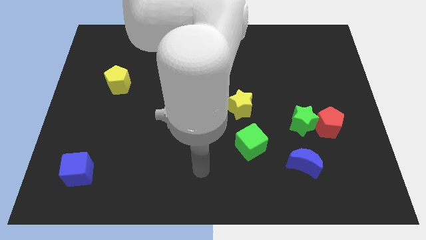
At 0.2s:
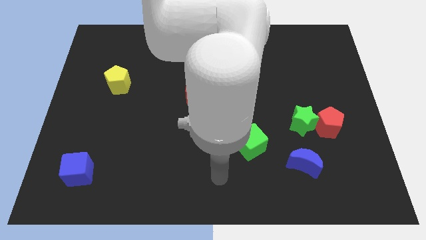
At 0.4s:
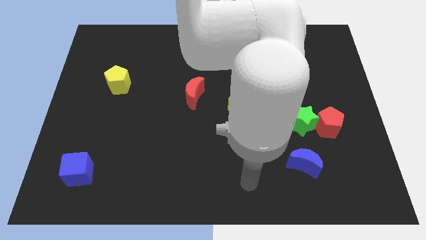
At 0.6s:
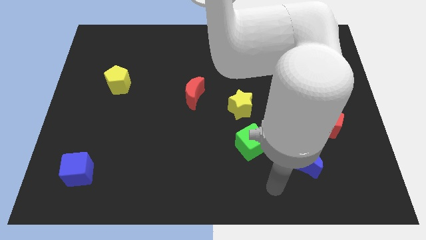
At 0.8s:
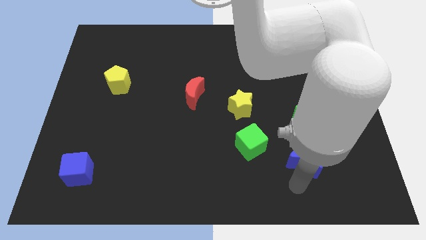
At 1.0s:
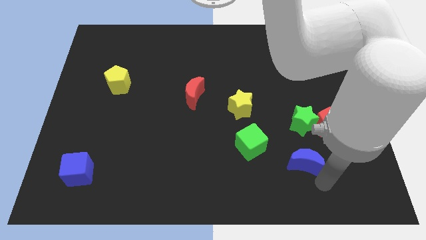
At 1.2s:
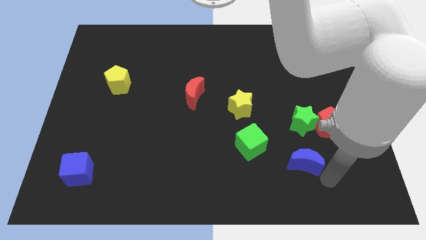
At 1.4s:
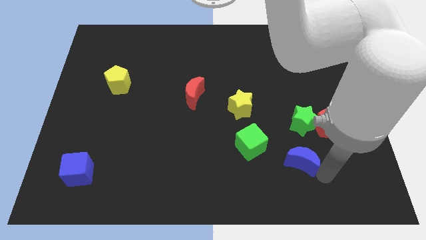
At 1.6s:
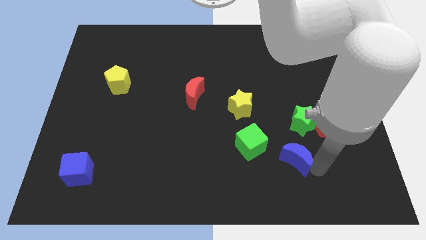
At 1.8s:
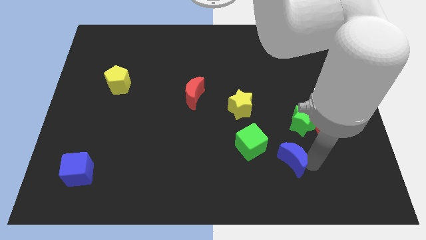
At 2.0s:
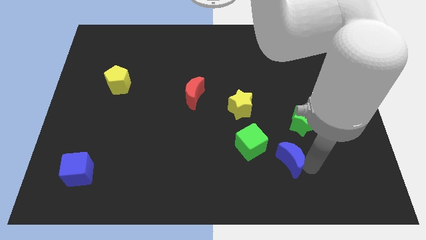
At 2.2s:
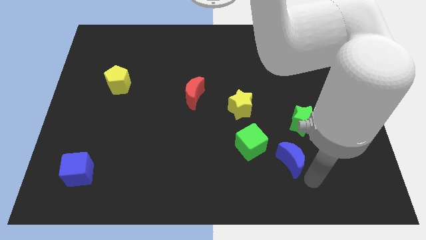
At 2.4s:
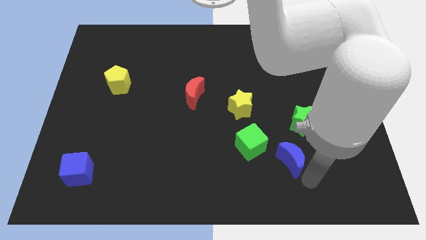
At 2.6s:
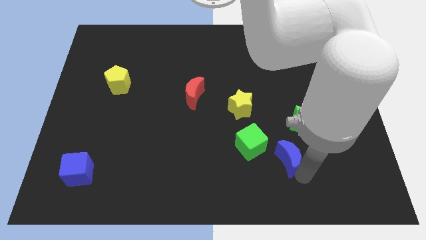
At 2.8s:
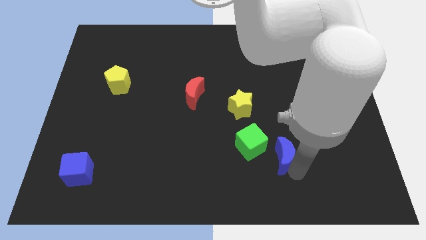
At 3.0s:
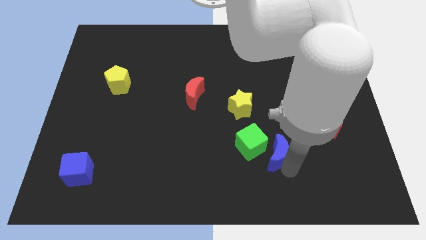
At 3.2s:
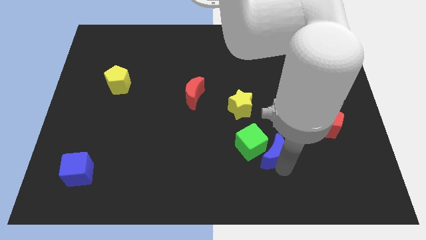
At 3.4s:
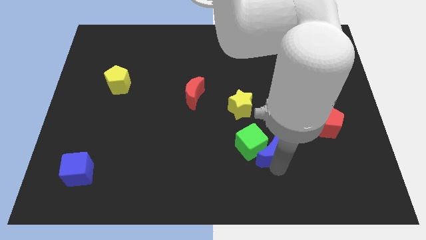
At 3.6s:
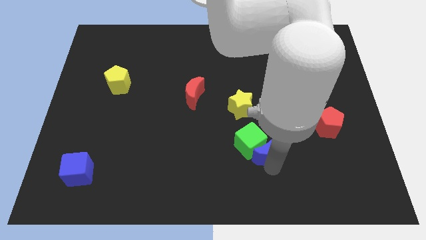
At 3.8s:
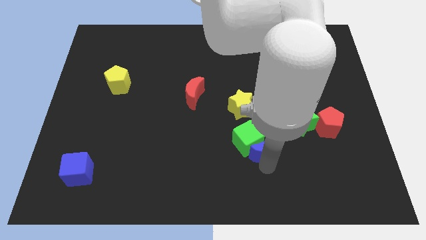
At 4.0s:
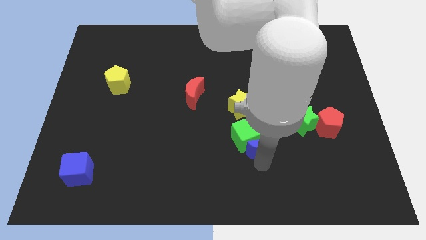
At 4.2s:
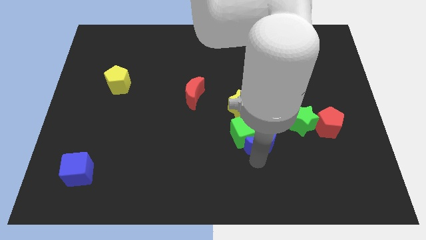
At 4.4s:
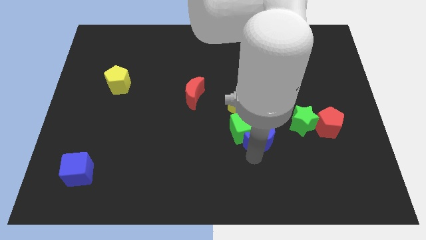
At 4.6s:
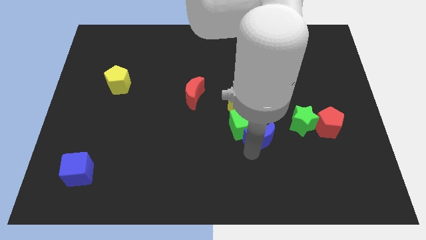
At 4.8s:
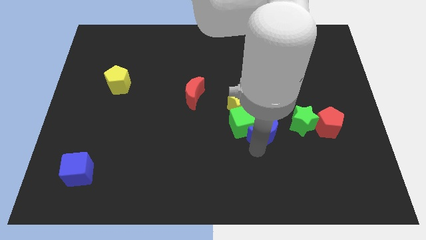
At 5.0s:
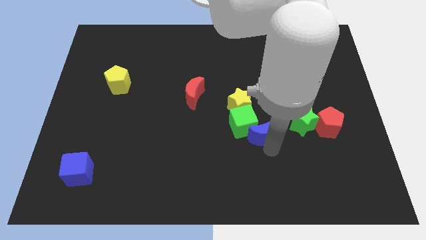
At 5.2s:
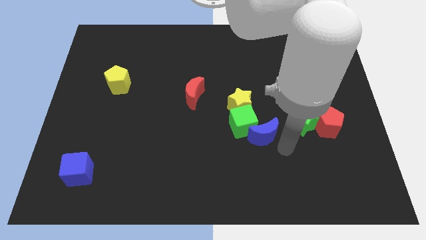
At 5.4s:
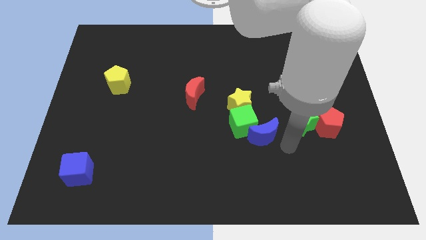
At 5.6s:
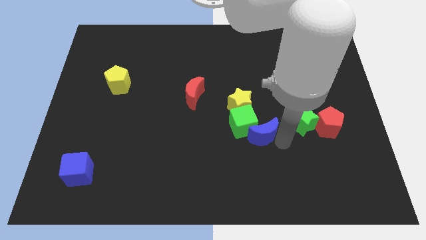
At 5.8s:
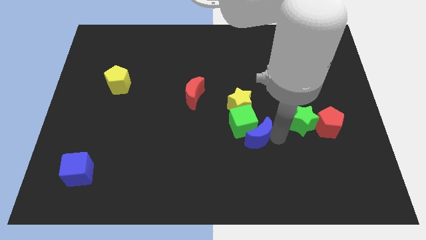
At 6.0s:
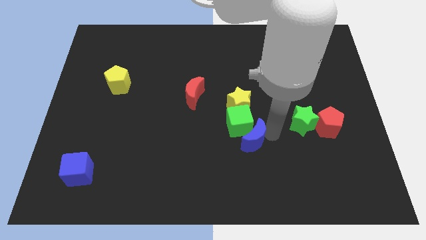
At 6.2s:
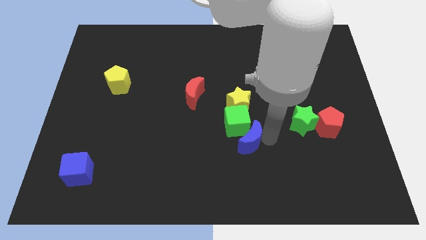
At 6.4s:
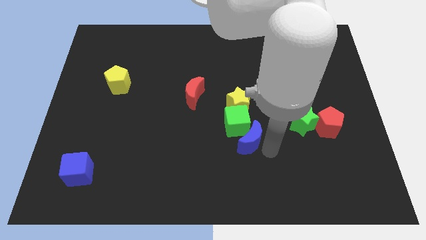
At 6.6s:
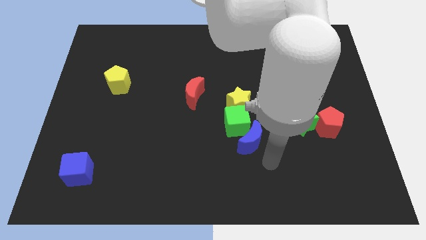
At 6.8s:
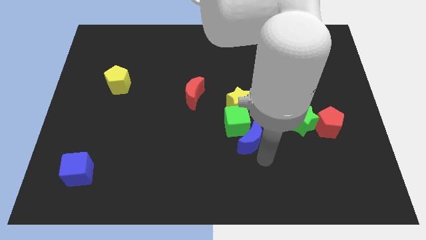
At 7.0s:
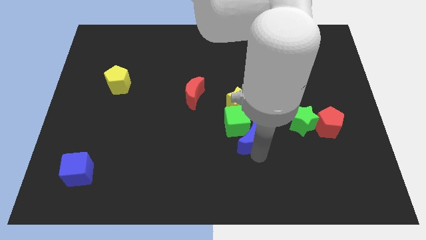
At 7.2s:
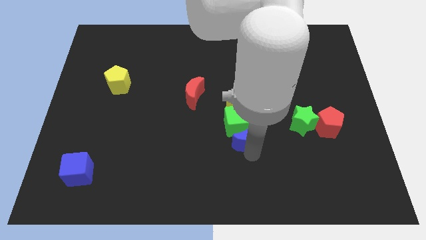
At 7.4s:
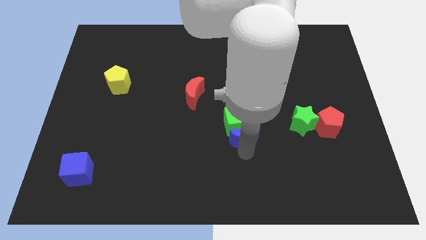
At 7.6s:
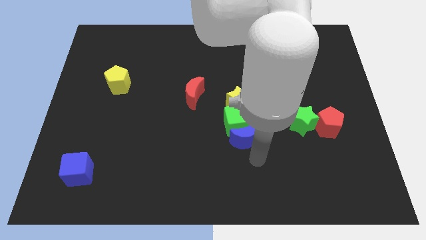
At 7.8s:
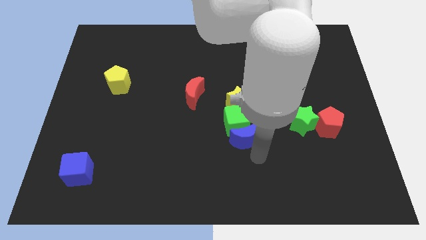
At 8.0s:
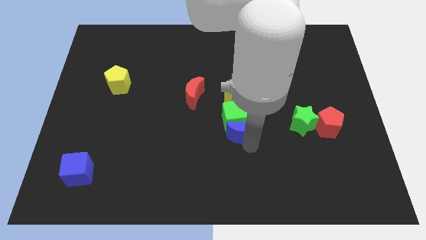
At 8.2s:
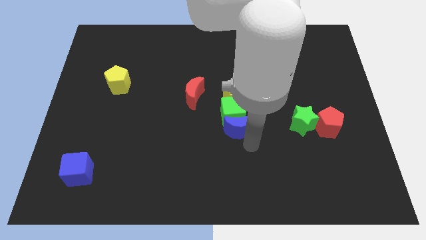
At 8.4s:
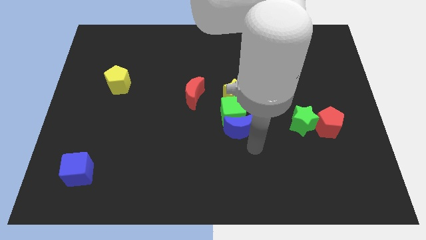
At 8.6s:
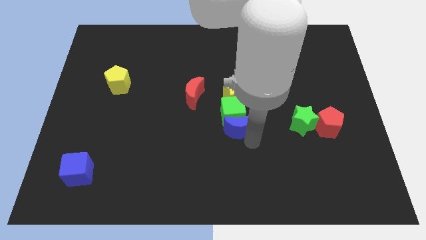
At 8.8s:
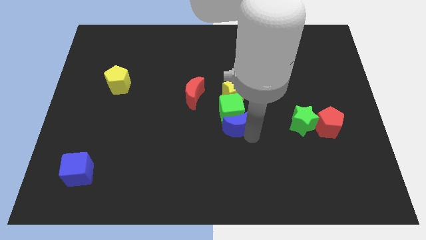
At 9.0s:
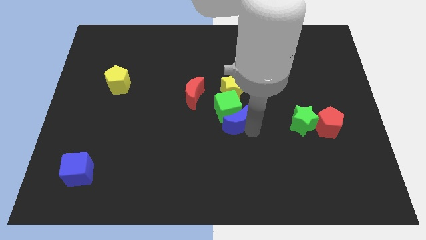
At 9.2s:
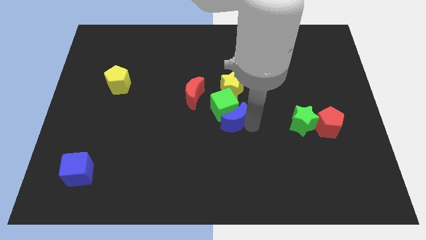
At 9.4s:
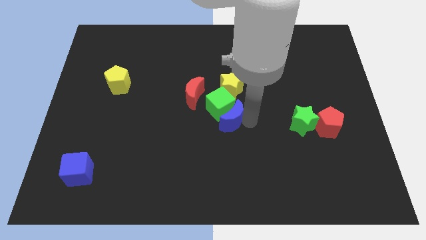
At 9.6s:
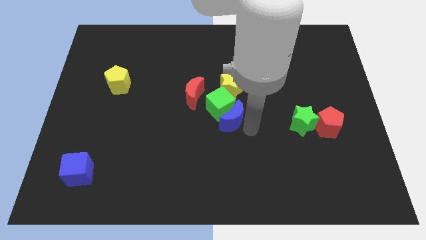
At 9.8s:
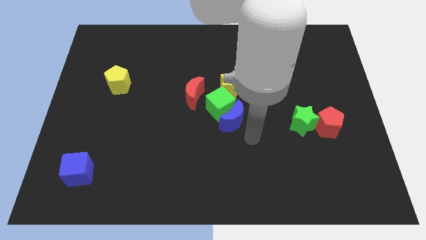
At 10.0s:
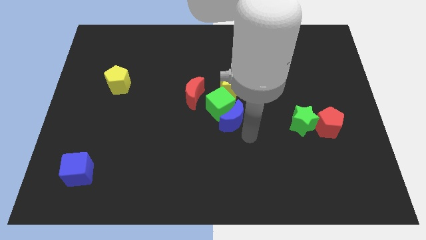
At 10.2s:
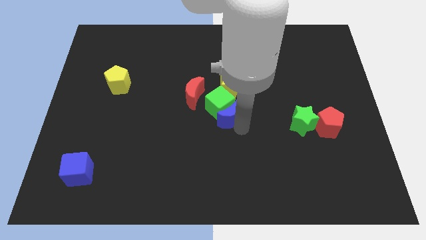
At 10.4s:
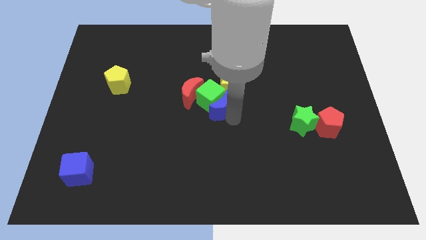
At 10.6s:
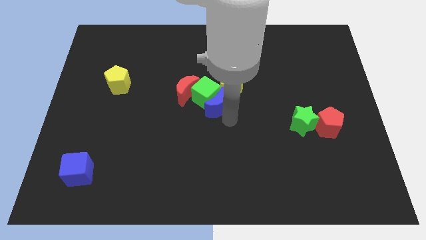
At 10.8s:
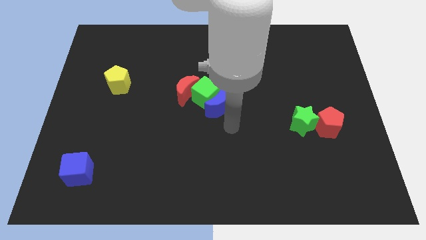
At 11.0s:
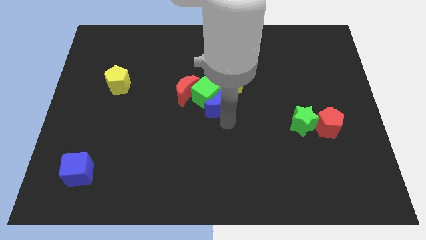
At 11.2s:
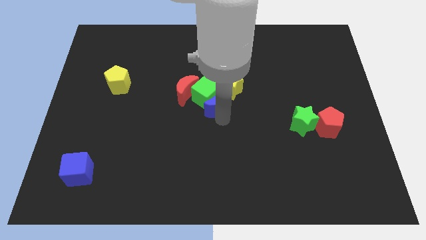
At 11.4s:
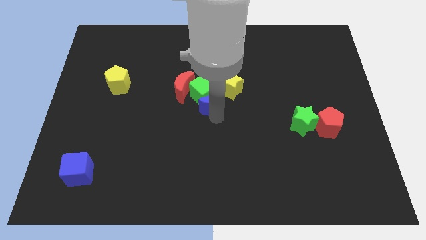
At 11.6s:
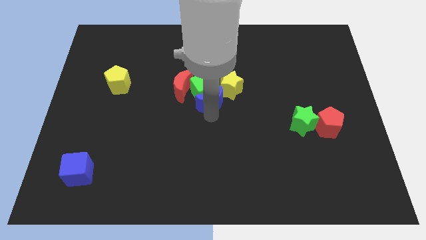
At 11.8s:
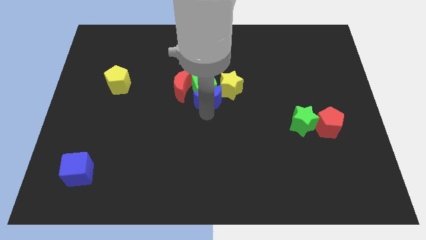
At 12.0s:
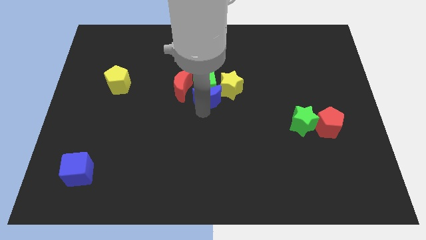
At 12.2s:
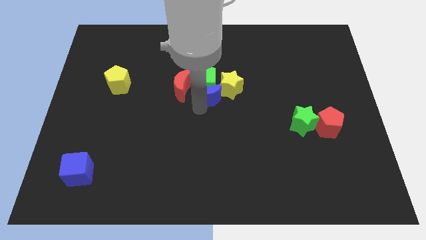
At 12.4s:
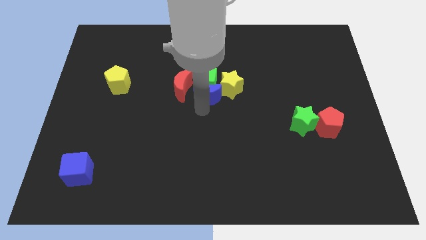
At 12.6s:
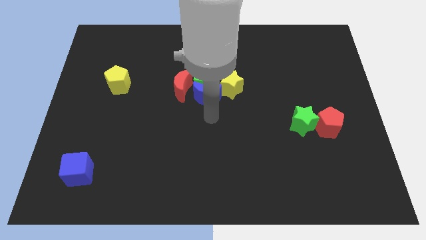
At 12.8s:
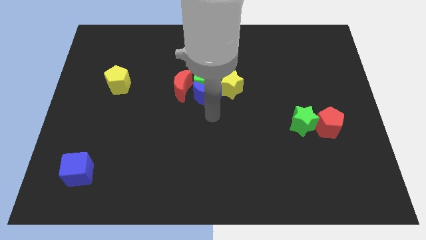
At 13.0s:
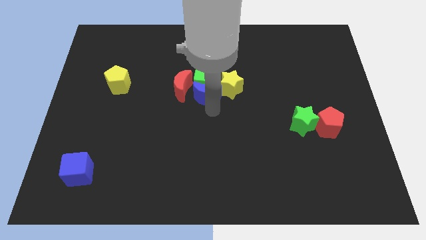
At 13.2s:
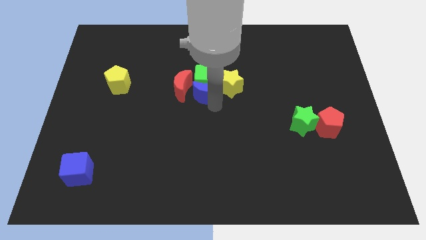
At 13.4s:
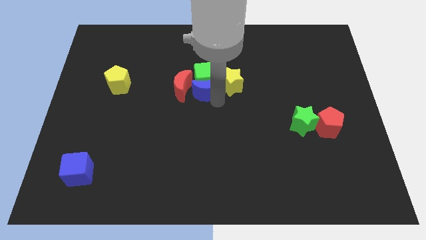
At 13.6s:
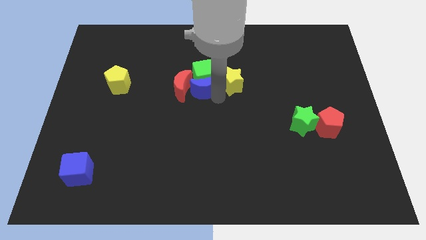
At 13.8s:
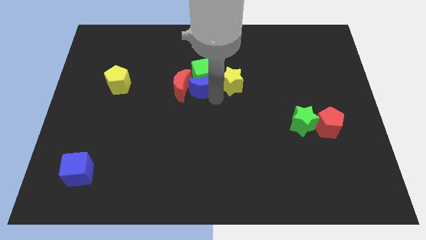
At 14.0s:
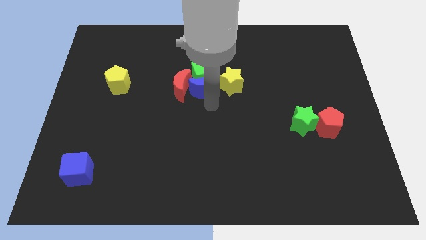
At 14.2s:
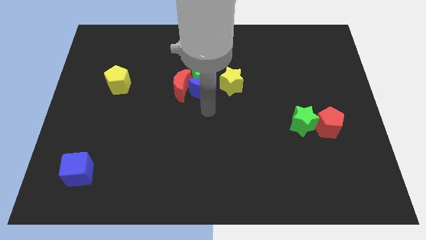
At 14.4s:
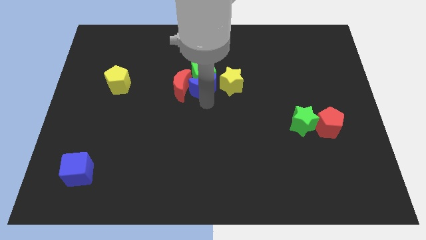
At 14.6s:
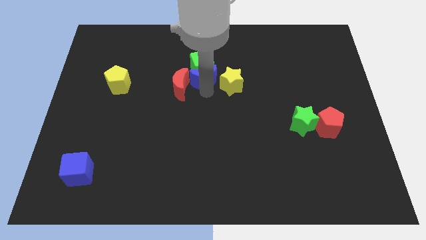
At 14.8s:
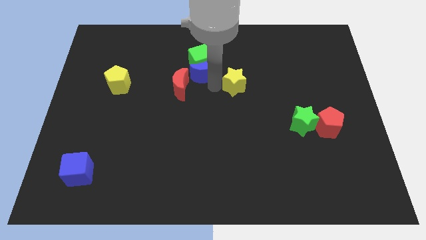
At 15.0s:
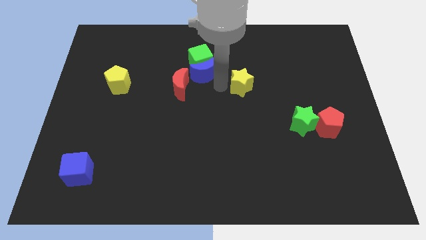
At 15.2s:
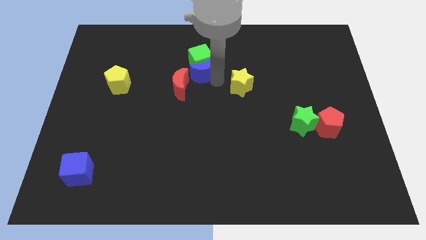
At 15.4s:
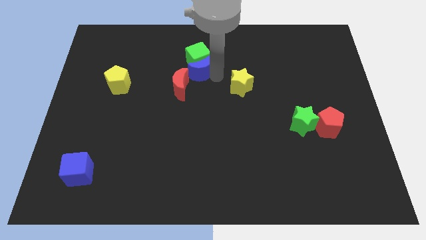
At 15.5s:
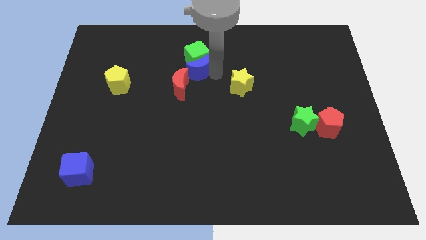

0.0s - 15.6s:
move the blue moon to the top side of the red moon
